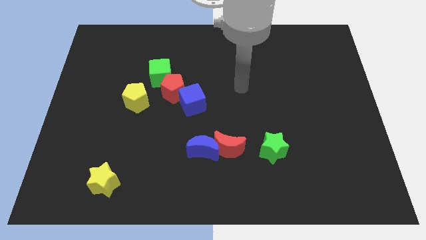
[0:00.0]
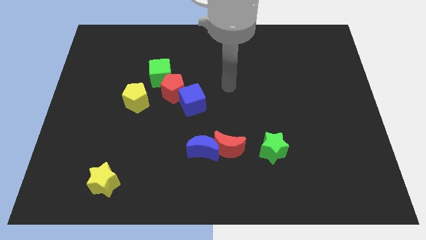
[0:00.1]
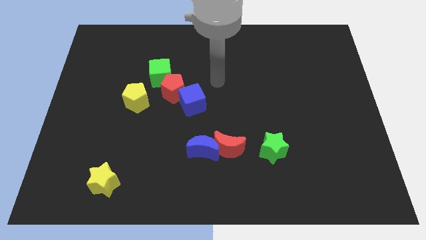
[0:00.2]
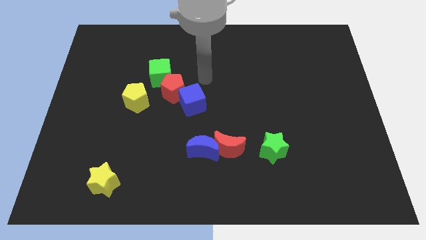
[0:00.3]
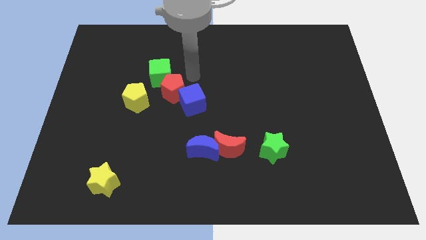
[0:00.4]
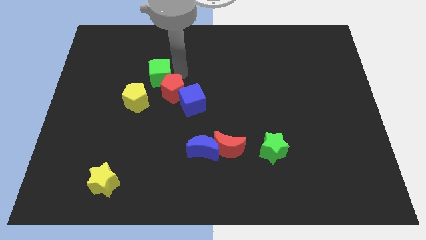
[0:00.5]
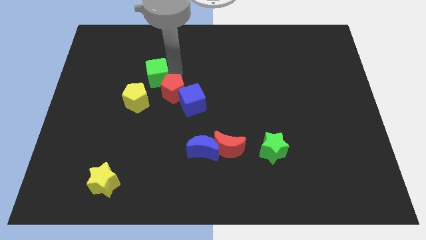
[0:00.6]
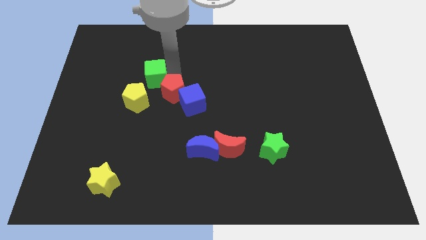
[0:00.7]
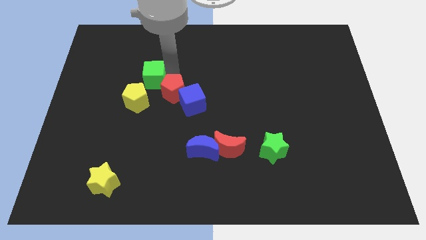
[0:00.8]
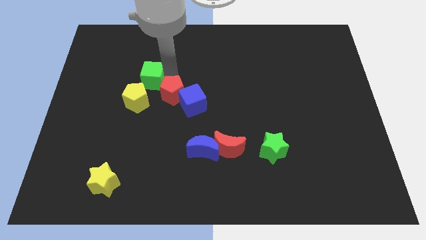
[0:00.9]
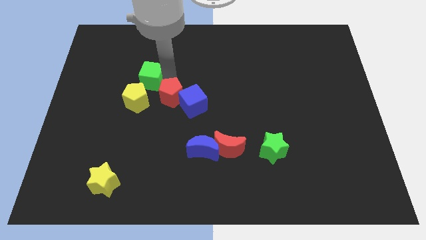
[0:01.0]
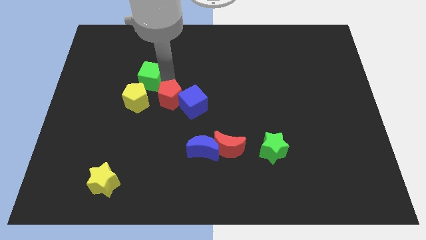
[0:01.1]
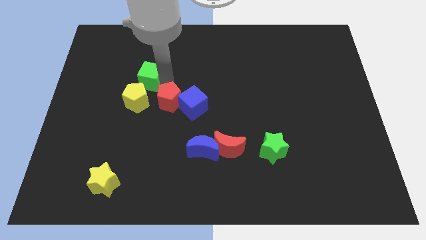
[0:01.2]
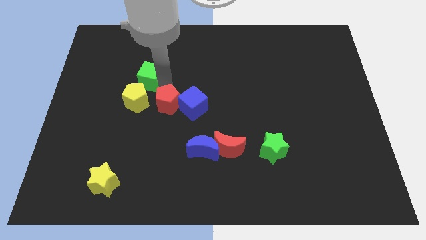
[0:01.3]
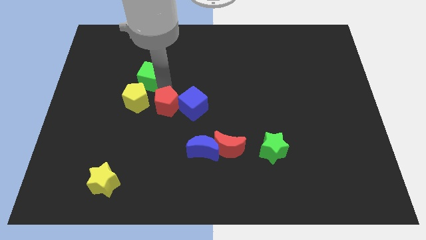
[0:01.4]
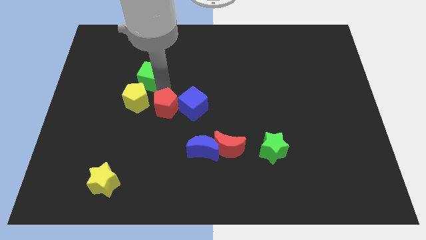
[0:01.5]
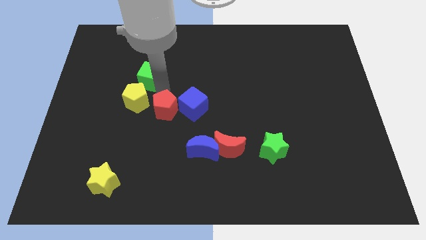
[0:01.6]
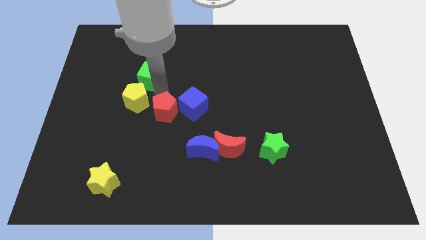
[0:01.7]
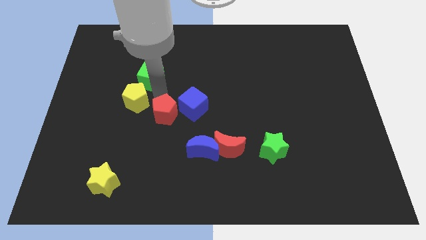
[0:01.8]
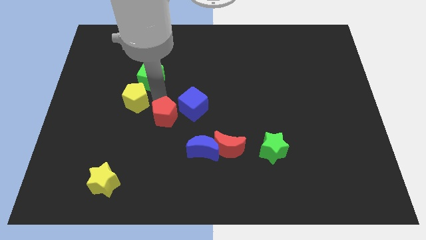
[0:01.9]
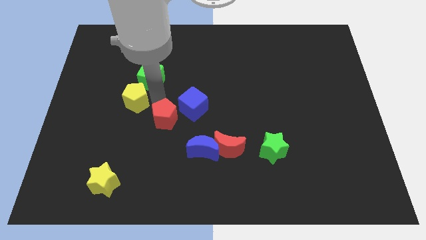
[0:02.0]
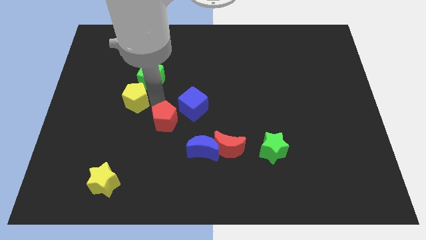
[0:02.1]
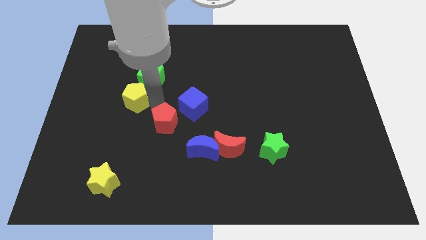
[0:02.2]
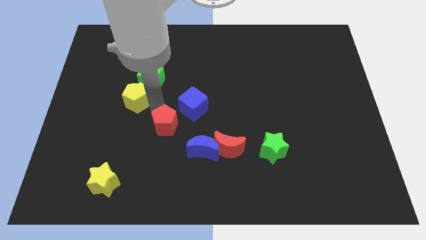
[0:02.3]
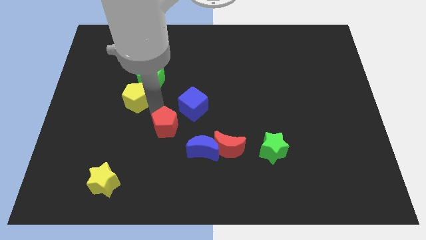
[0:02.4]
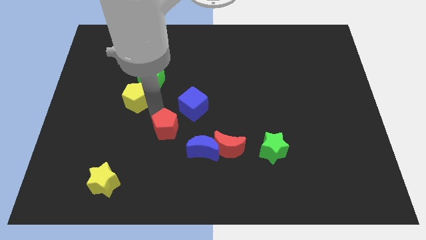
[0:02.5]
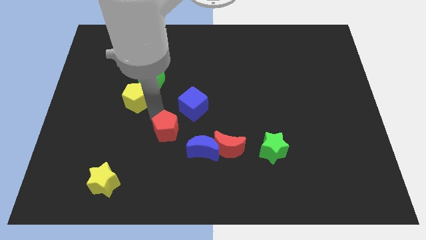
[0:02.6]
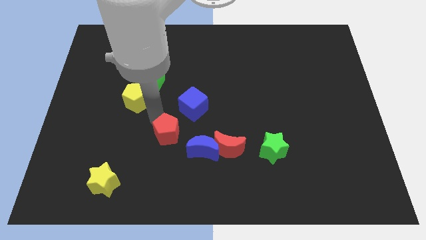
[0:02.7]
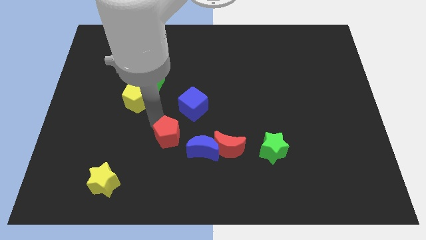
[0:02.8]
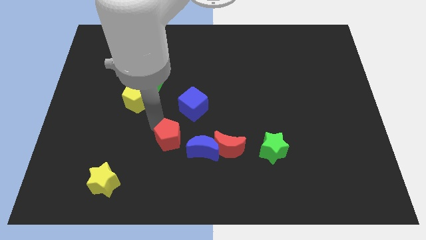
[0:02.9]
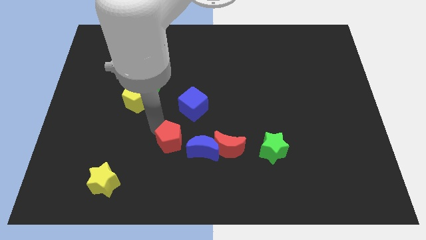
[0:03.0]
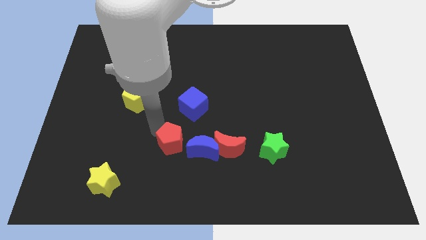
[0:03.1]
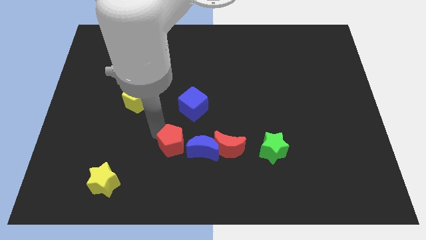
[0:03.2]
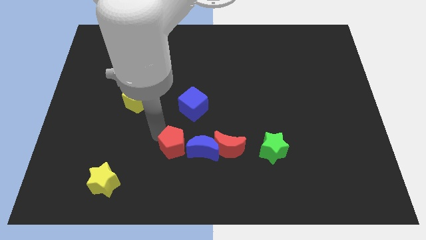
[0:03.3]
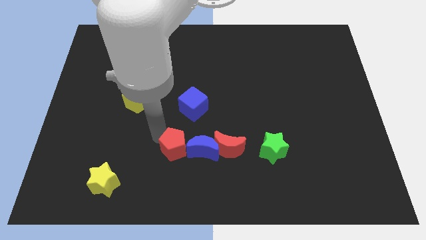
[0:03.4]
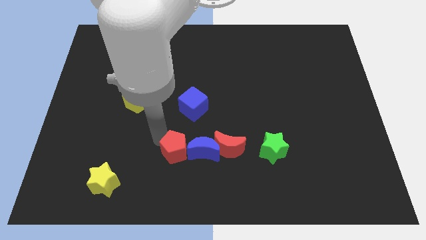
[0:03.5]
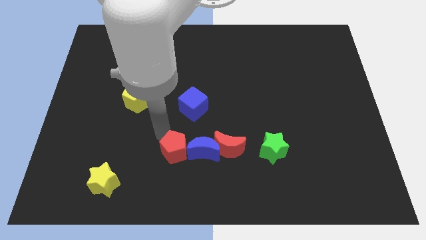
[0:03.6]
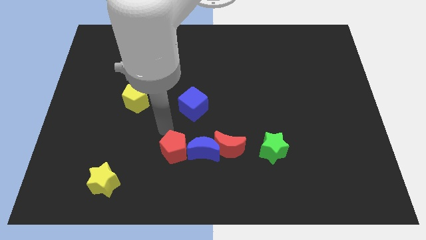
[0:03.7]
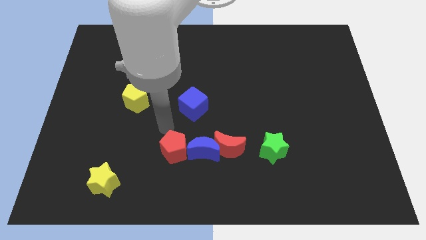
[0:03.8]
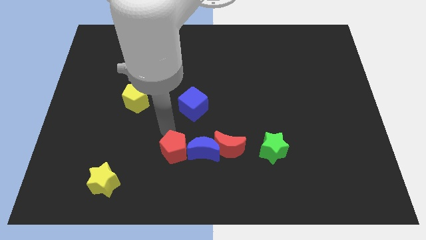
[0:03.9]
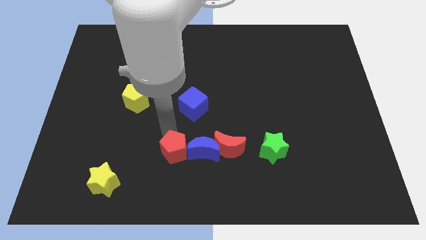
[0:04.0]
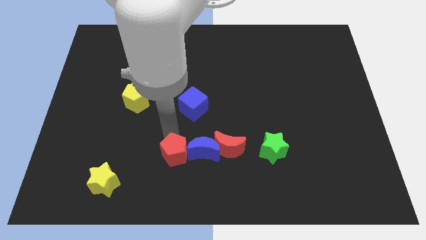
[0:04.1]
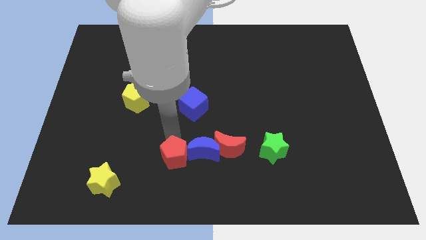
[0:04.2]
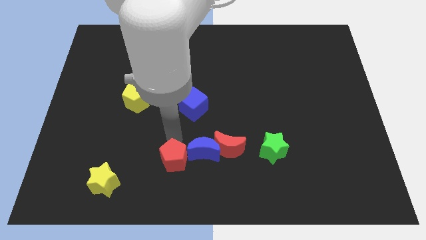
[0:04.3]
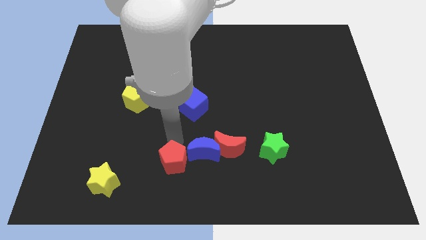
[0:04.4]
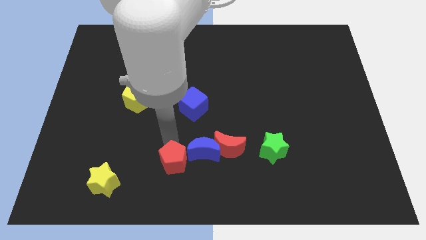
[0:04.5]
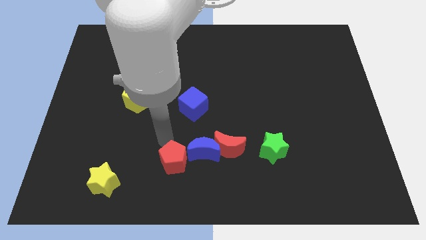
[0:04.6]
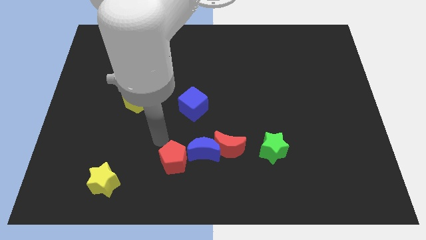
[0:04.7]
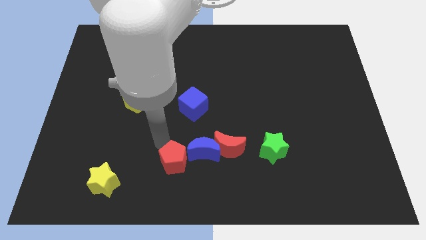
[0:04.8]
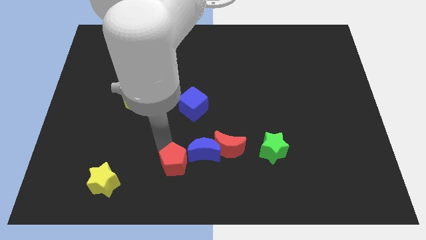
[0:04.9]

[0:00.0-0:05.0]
slide the red pentagon to the bottom side

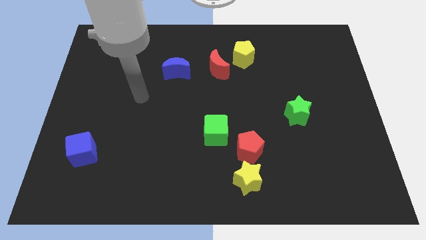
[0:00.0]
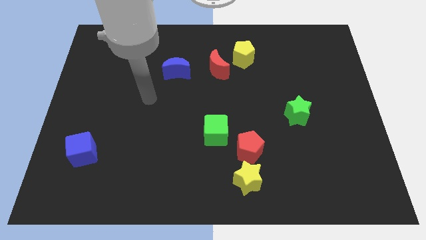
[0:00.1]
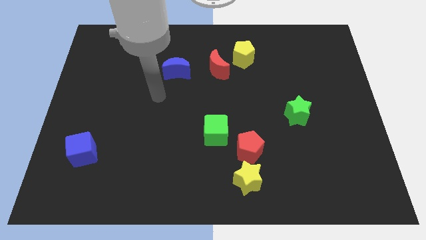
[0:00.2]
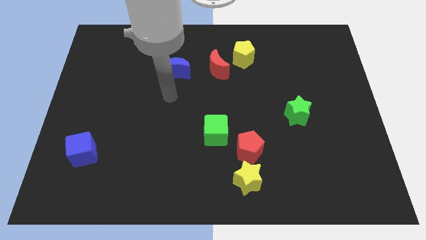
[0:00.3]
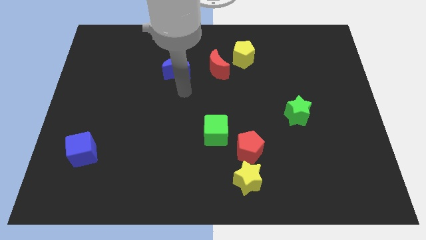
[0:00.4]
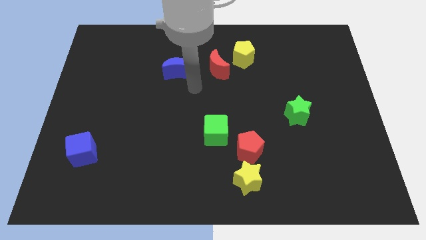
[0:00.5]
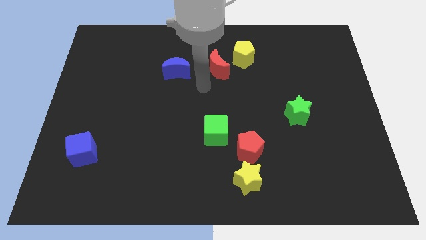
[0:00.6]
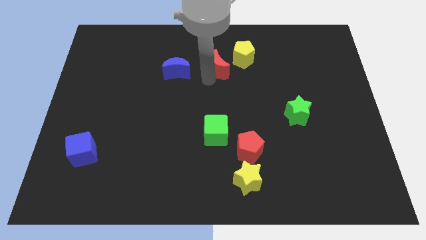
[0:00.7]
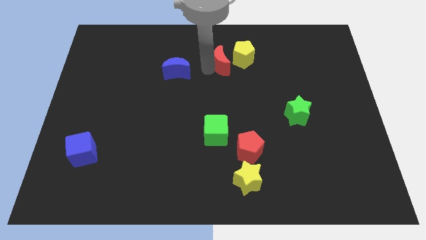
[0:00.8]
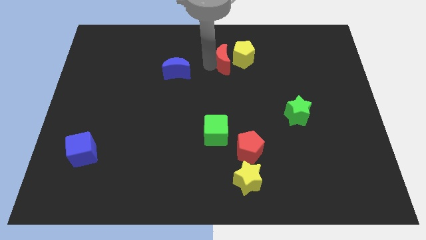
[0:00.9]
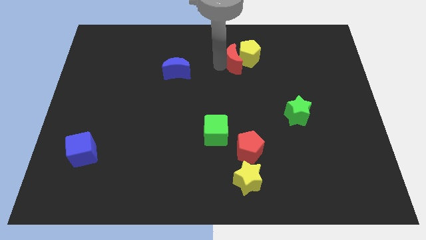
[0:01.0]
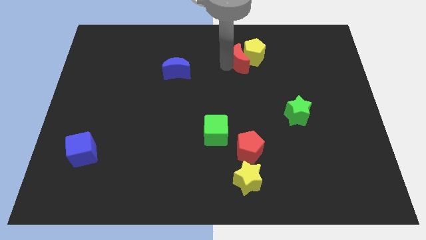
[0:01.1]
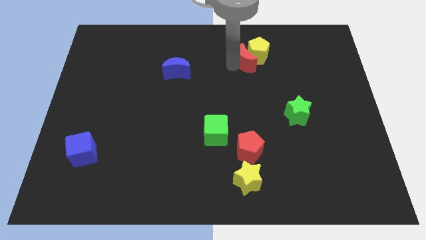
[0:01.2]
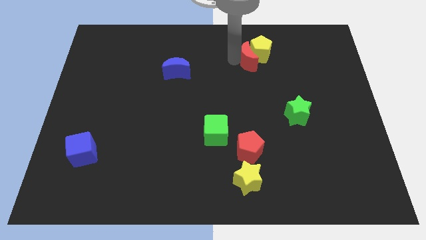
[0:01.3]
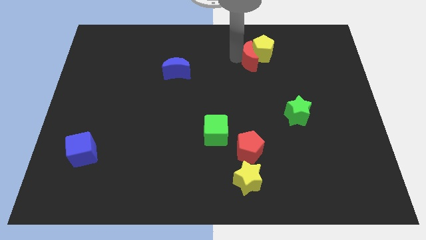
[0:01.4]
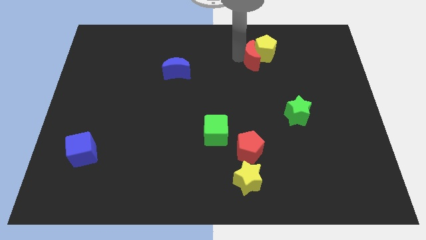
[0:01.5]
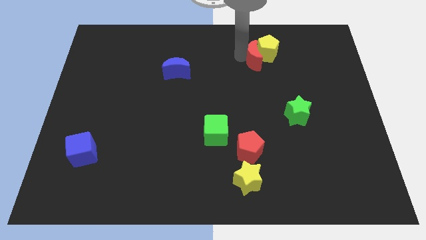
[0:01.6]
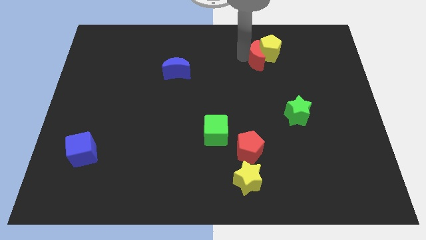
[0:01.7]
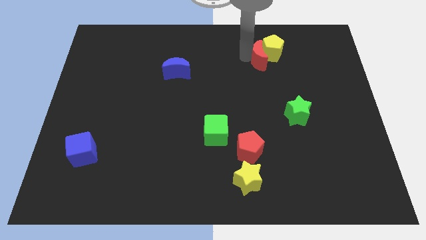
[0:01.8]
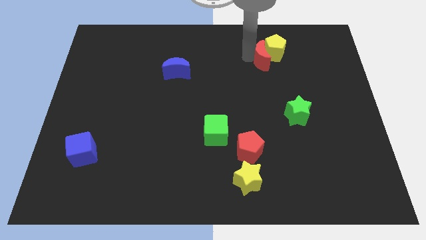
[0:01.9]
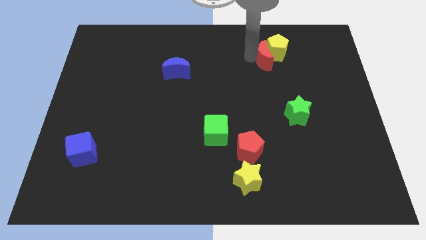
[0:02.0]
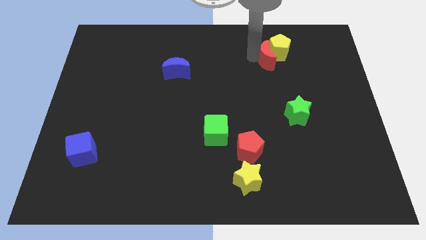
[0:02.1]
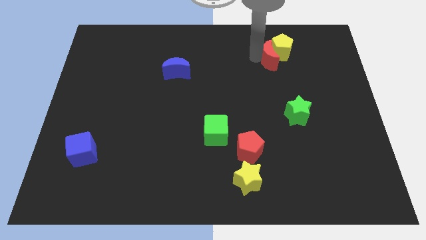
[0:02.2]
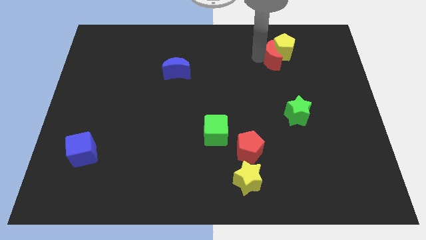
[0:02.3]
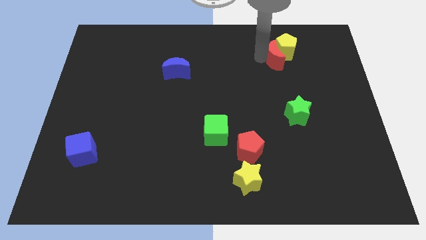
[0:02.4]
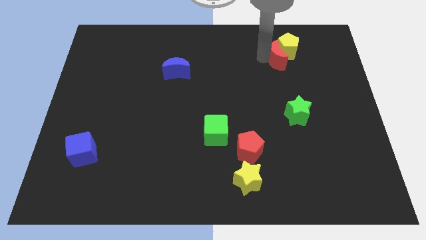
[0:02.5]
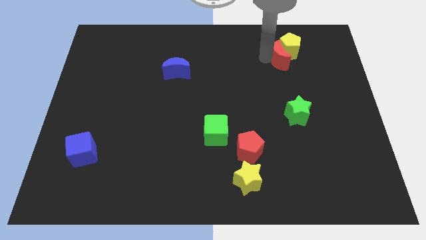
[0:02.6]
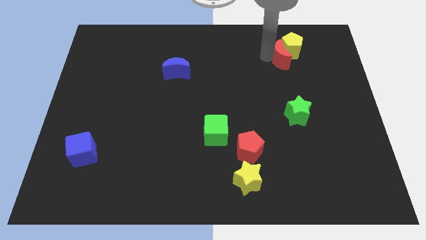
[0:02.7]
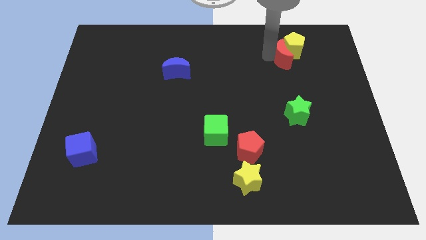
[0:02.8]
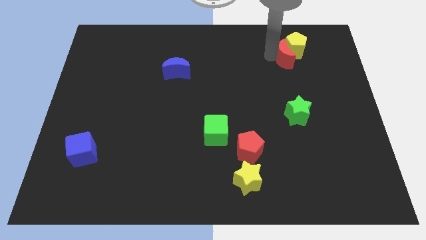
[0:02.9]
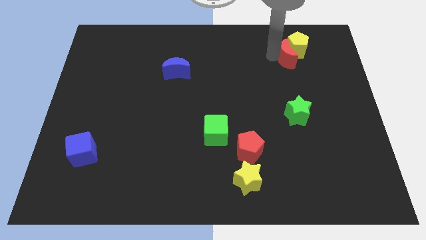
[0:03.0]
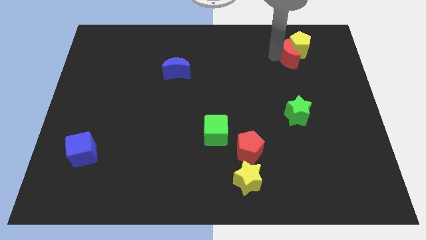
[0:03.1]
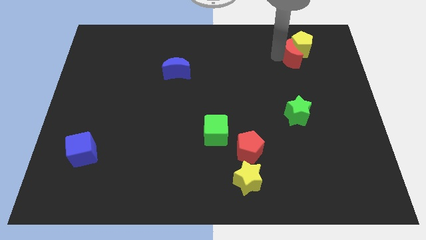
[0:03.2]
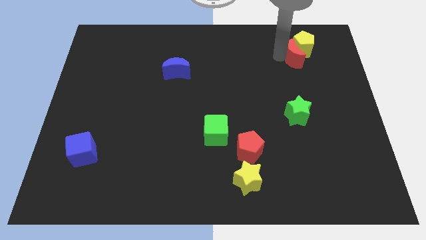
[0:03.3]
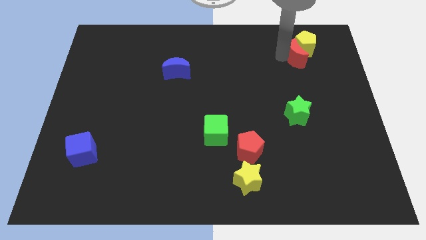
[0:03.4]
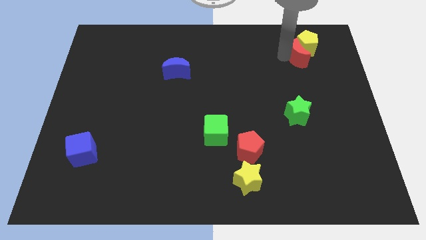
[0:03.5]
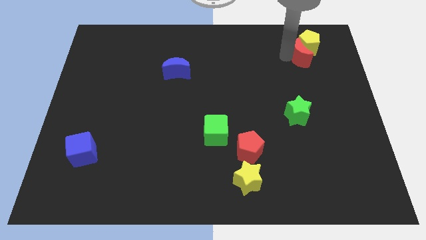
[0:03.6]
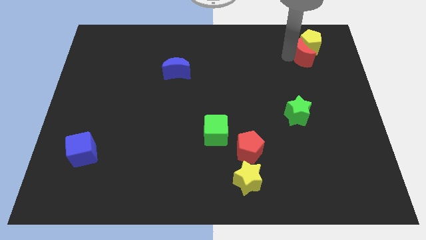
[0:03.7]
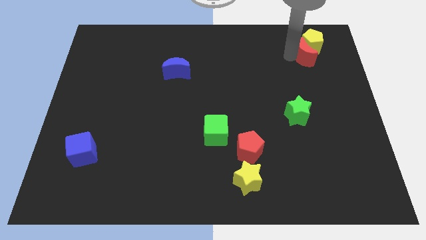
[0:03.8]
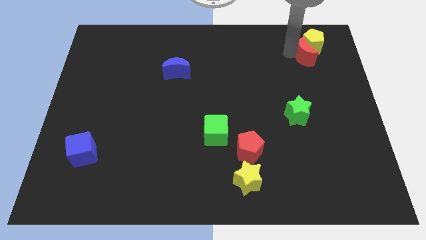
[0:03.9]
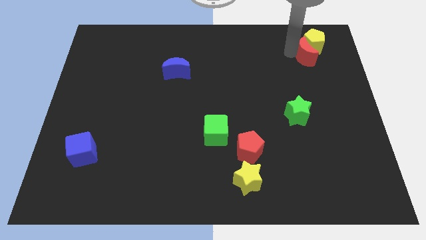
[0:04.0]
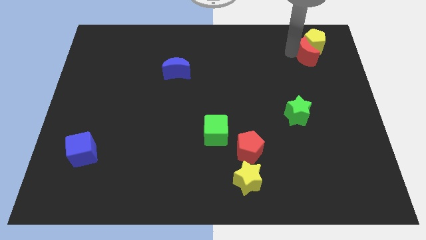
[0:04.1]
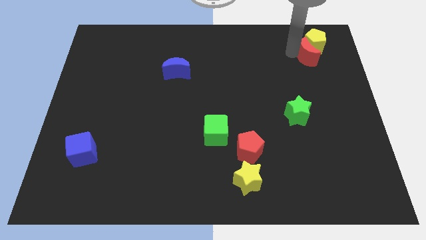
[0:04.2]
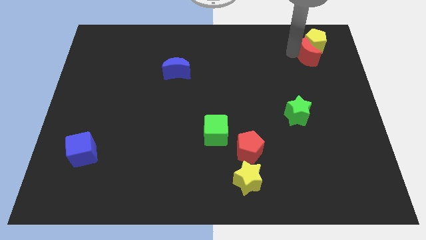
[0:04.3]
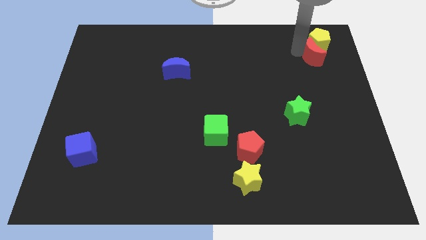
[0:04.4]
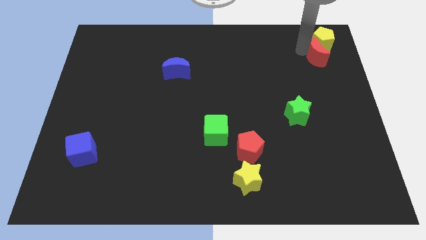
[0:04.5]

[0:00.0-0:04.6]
push the yellow pentagon to the top right of the board
